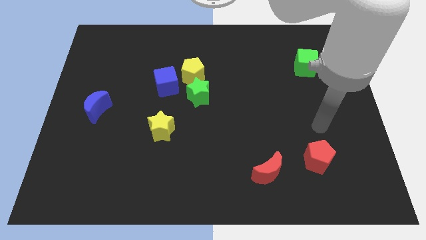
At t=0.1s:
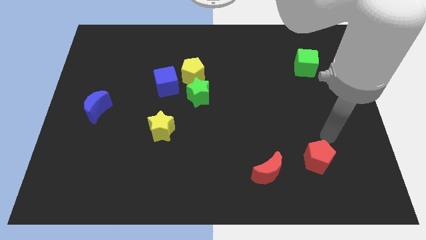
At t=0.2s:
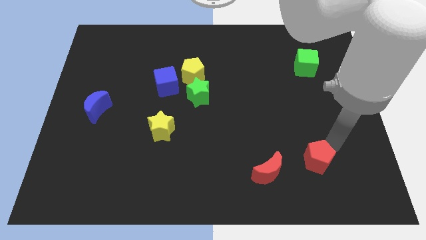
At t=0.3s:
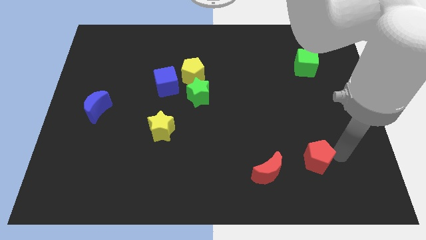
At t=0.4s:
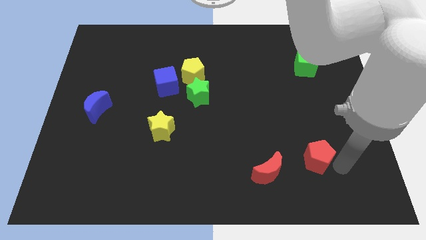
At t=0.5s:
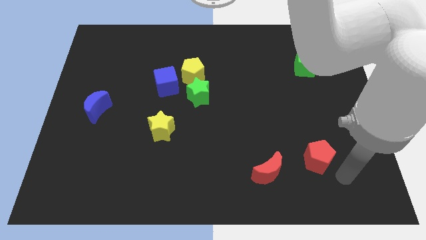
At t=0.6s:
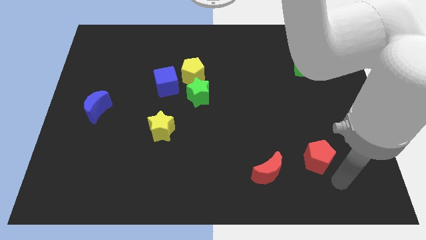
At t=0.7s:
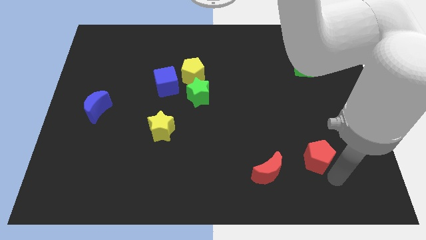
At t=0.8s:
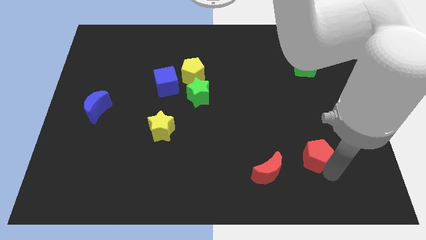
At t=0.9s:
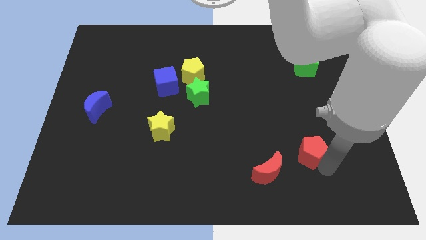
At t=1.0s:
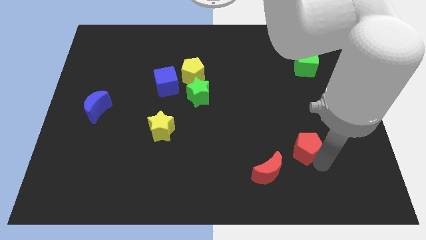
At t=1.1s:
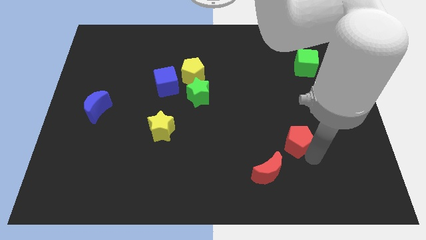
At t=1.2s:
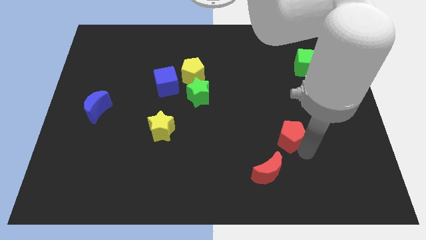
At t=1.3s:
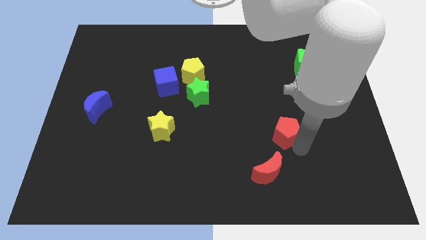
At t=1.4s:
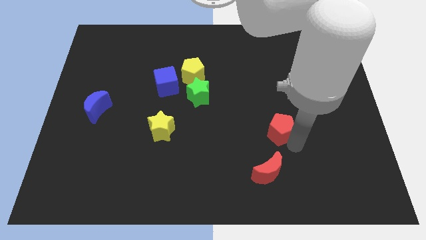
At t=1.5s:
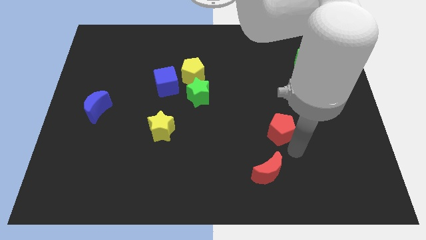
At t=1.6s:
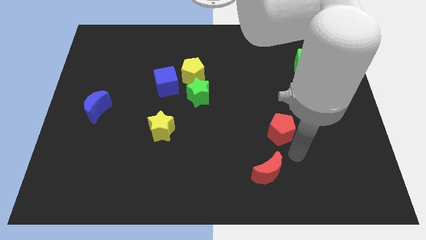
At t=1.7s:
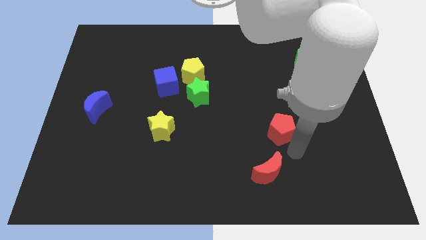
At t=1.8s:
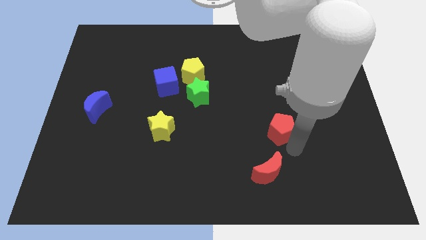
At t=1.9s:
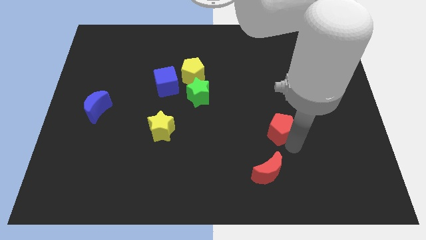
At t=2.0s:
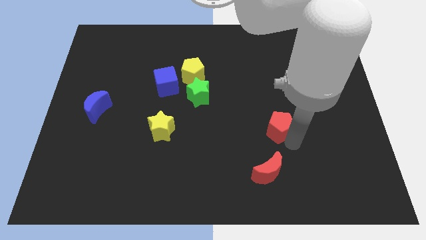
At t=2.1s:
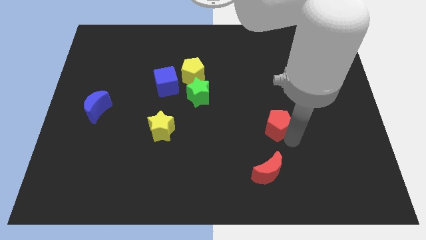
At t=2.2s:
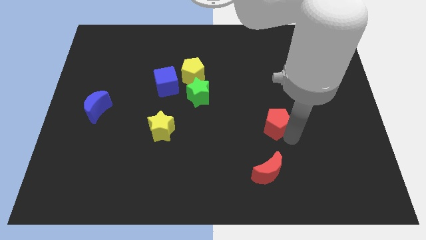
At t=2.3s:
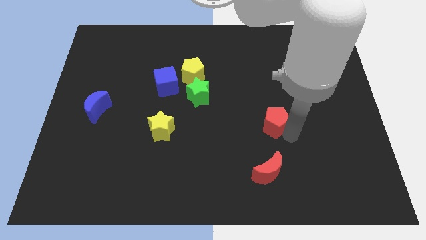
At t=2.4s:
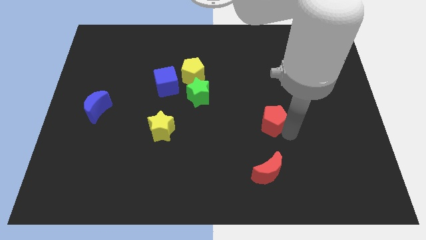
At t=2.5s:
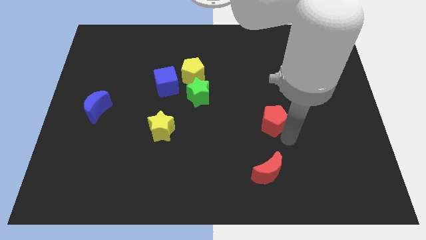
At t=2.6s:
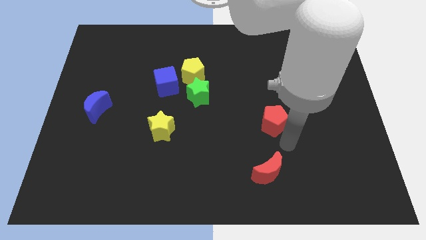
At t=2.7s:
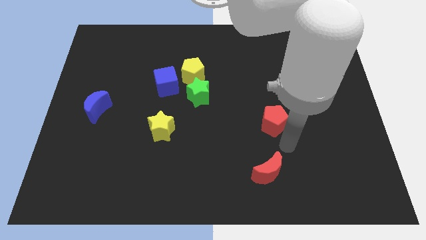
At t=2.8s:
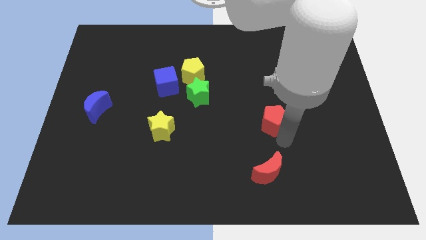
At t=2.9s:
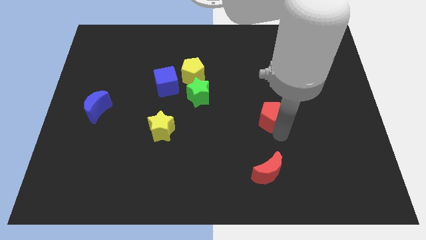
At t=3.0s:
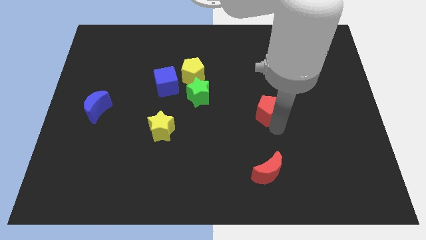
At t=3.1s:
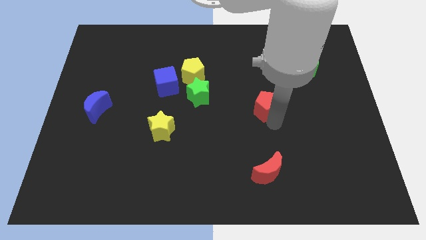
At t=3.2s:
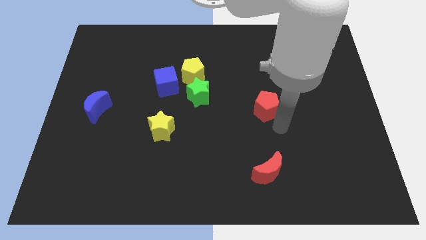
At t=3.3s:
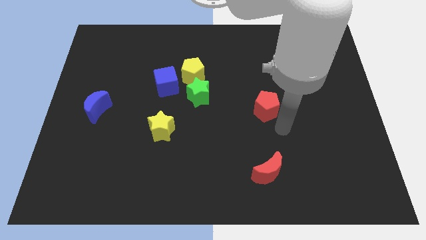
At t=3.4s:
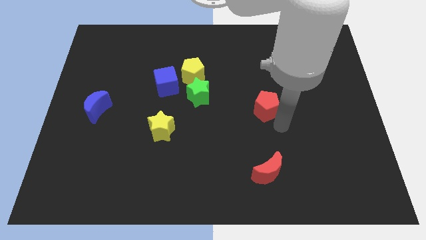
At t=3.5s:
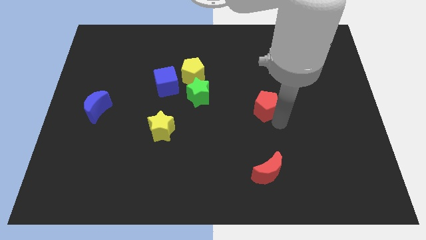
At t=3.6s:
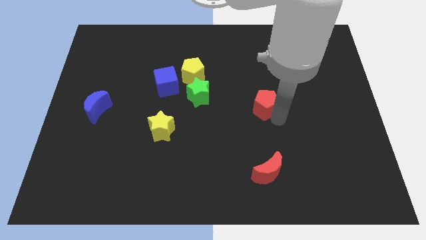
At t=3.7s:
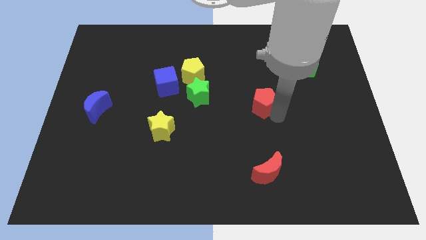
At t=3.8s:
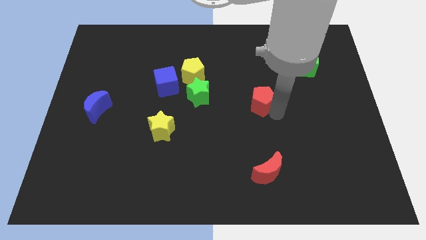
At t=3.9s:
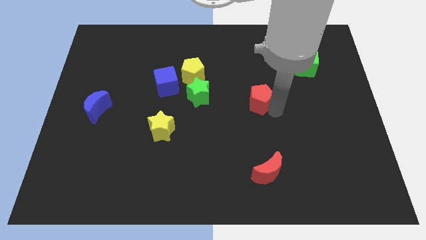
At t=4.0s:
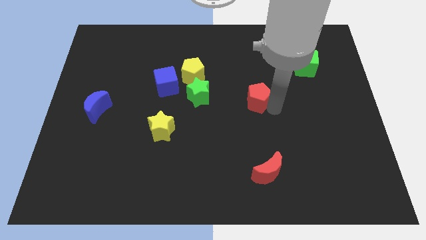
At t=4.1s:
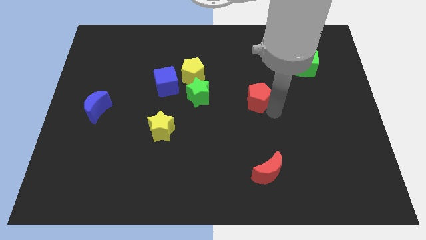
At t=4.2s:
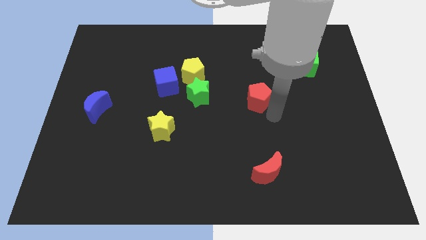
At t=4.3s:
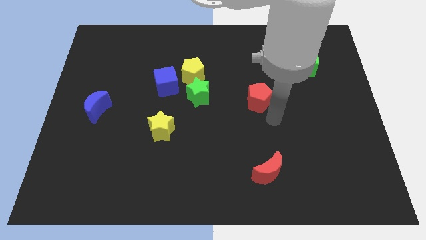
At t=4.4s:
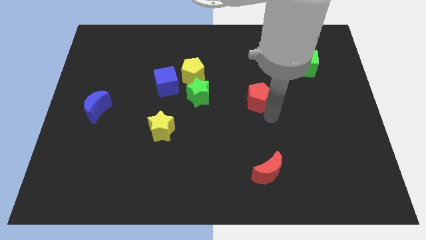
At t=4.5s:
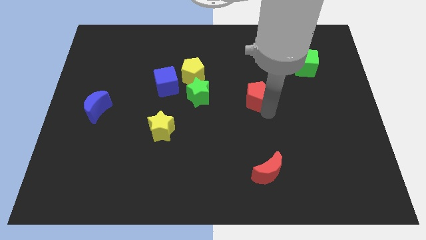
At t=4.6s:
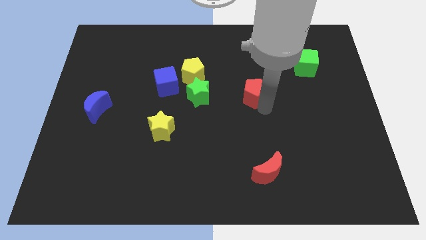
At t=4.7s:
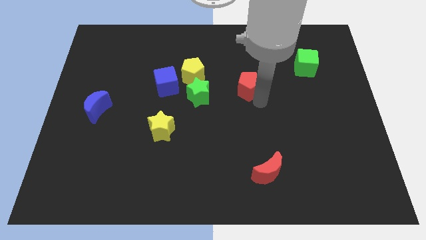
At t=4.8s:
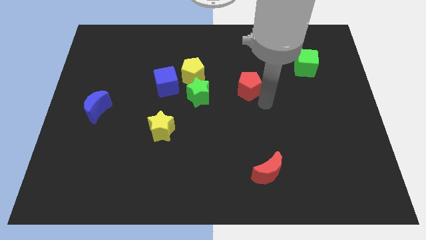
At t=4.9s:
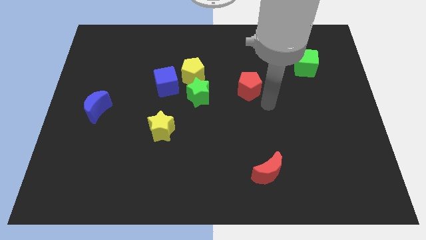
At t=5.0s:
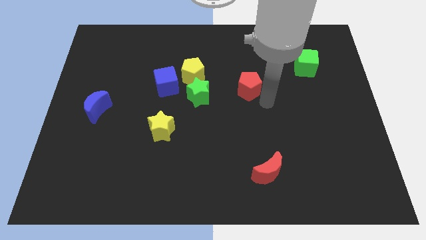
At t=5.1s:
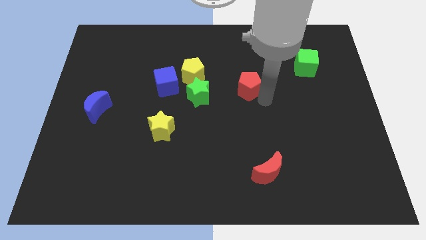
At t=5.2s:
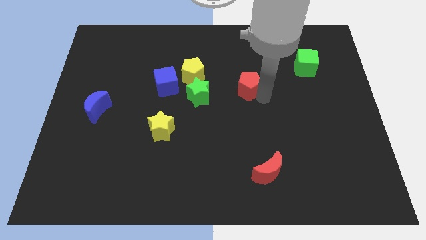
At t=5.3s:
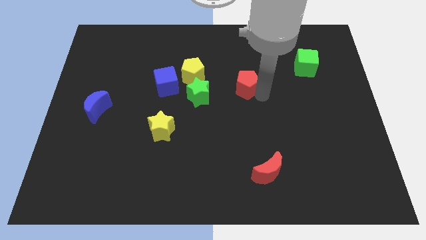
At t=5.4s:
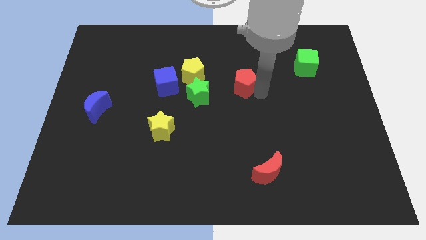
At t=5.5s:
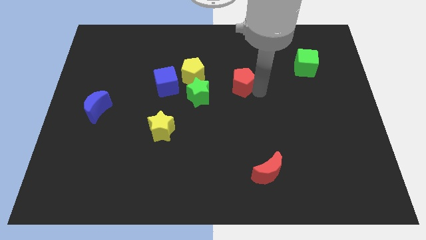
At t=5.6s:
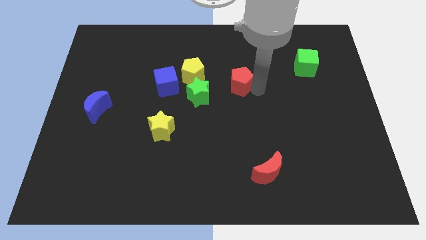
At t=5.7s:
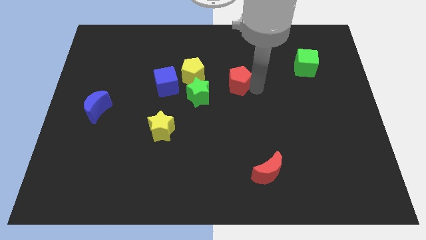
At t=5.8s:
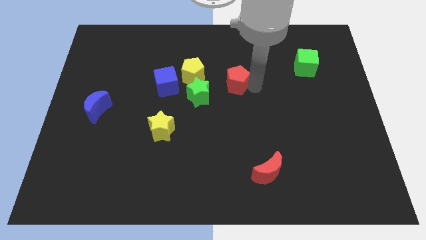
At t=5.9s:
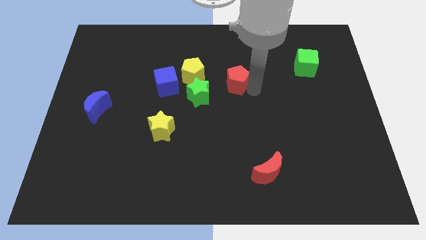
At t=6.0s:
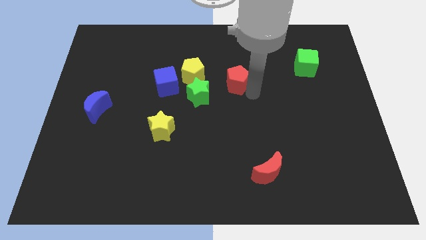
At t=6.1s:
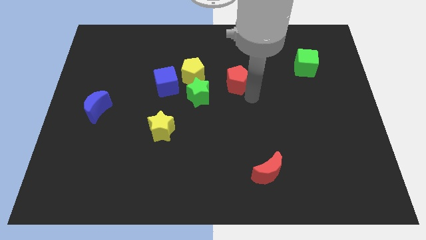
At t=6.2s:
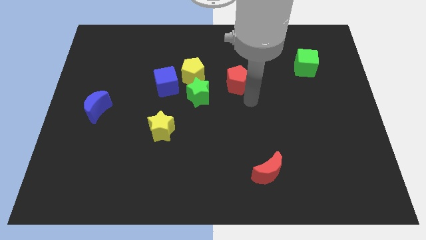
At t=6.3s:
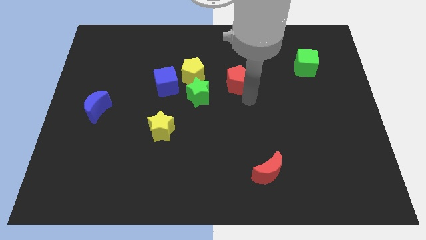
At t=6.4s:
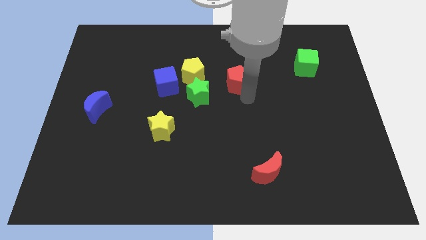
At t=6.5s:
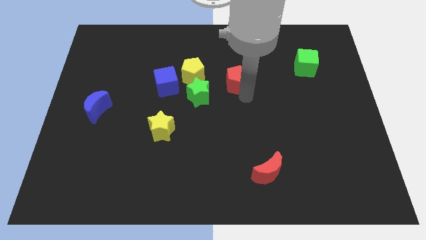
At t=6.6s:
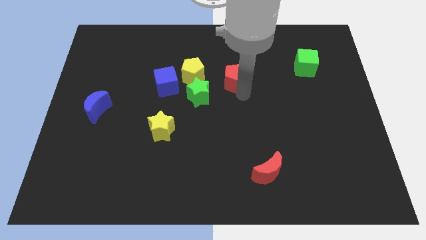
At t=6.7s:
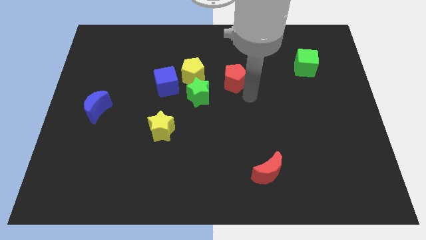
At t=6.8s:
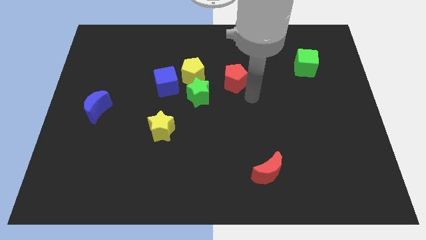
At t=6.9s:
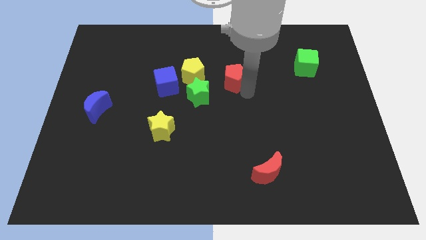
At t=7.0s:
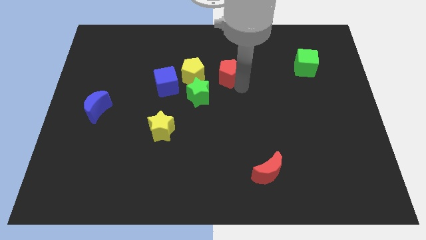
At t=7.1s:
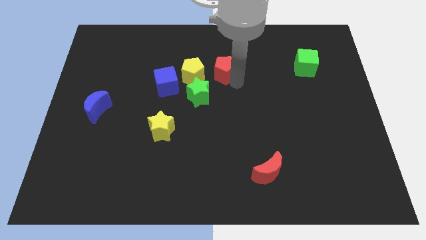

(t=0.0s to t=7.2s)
put the red pentagon to the top right side of the yellow pentagon

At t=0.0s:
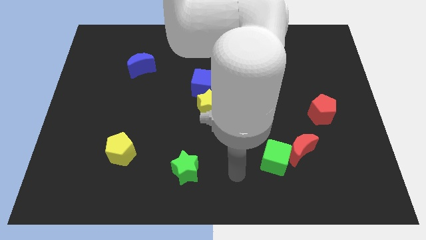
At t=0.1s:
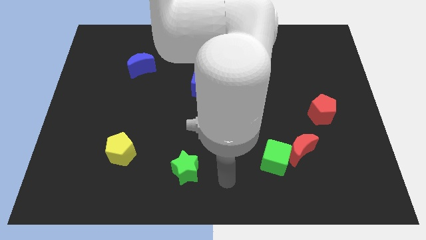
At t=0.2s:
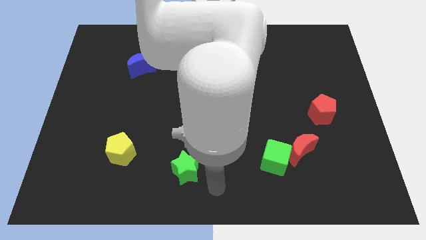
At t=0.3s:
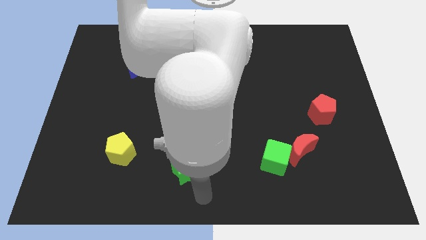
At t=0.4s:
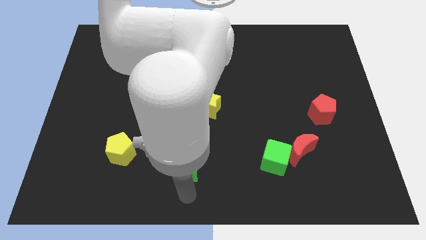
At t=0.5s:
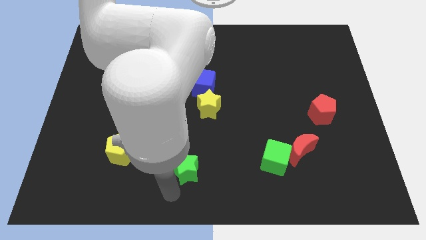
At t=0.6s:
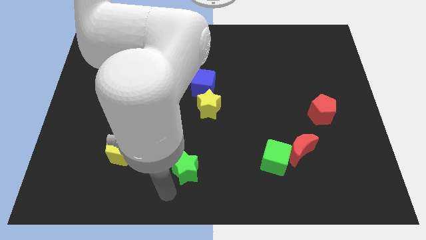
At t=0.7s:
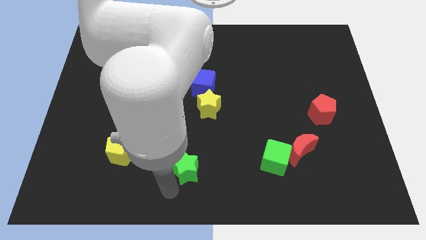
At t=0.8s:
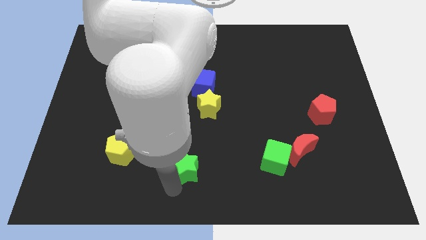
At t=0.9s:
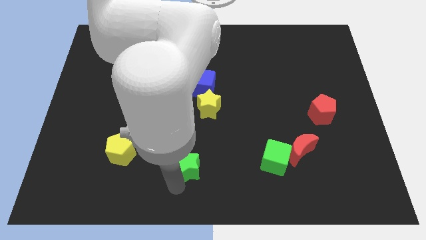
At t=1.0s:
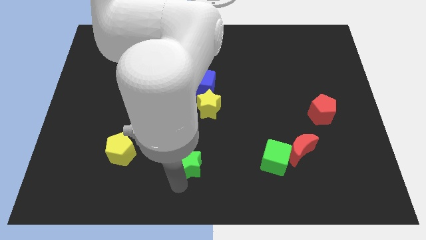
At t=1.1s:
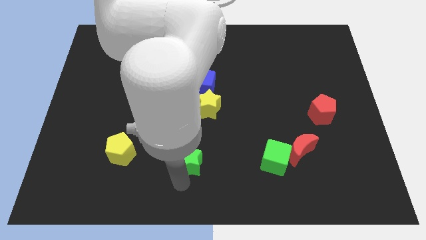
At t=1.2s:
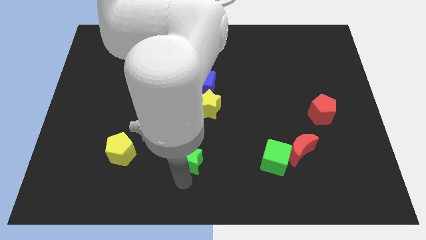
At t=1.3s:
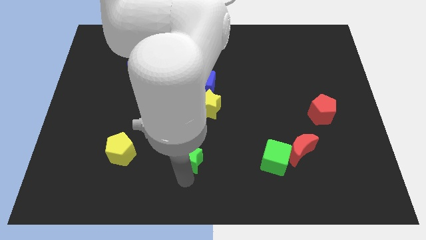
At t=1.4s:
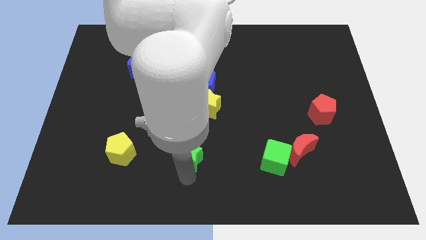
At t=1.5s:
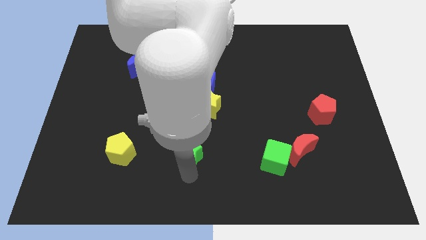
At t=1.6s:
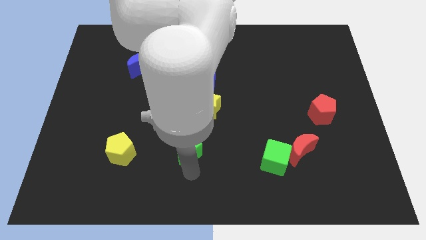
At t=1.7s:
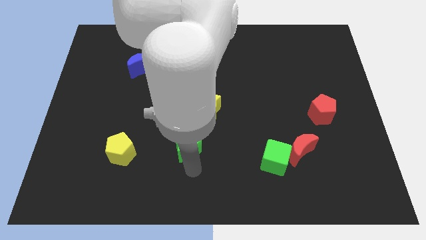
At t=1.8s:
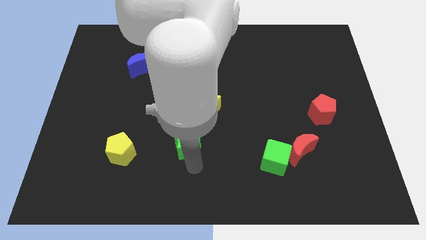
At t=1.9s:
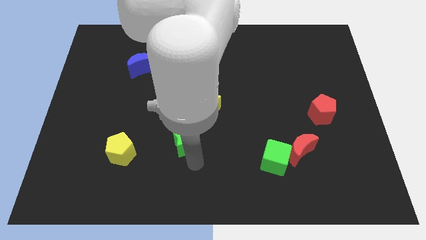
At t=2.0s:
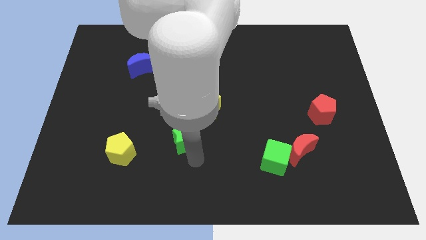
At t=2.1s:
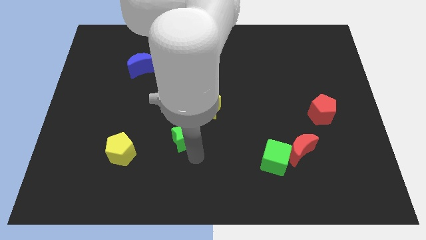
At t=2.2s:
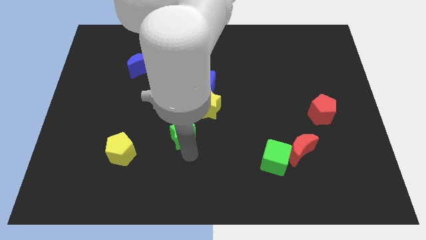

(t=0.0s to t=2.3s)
move the green star to the bottom of the blue cube
